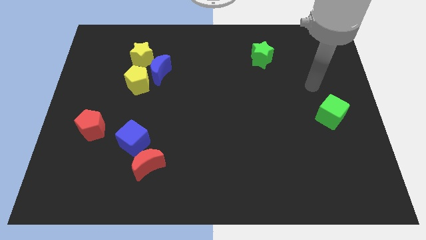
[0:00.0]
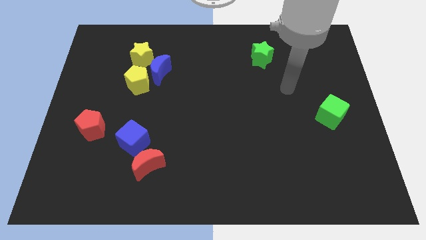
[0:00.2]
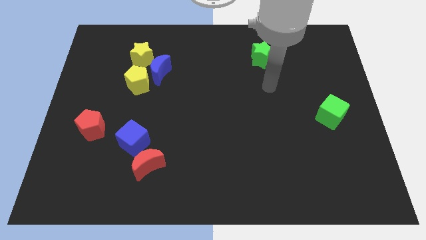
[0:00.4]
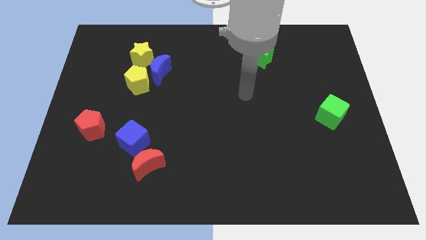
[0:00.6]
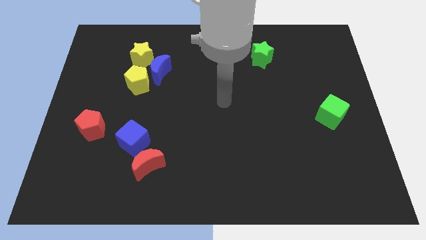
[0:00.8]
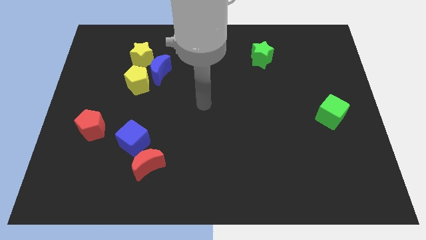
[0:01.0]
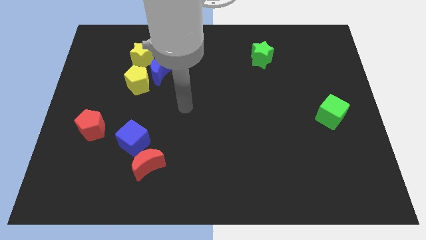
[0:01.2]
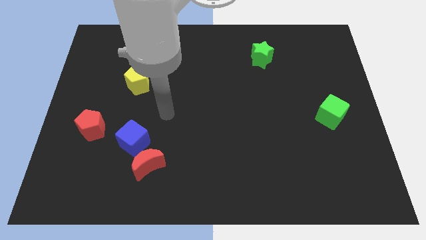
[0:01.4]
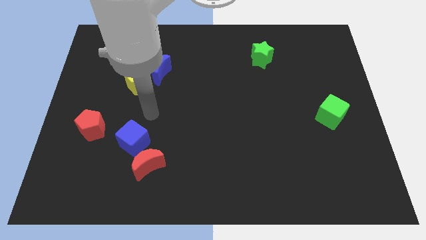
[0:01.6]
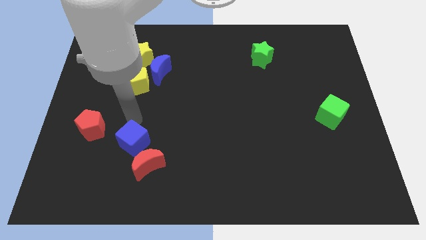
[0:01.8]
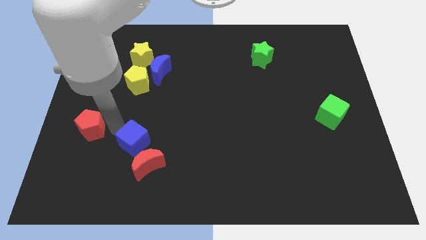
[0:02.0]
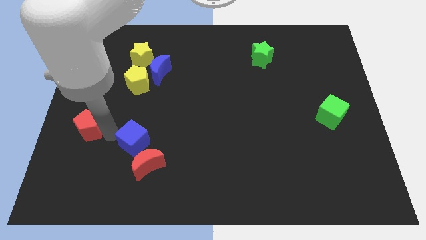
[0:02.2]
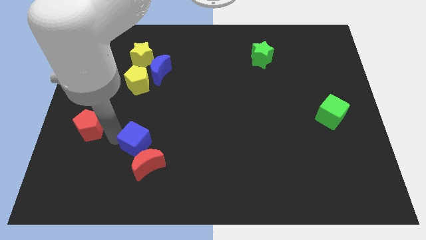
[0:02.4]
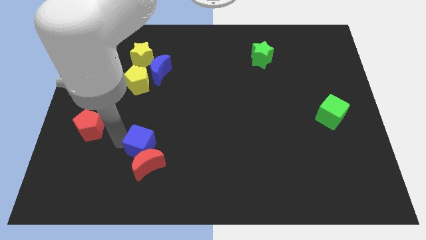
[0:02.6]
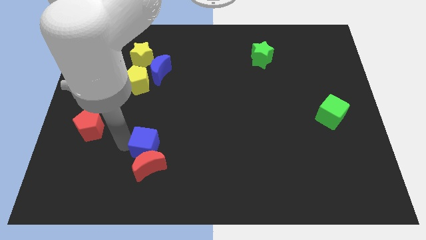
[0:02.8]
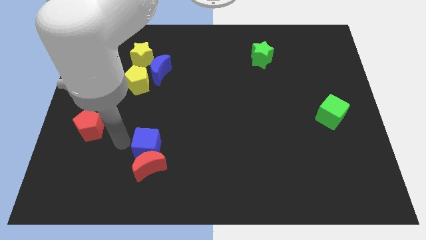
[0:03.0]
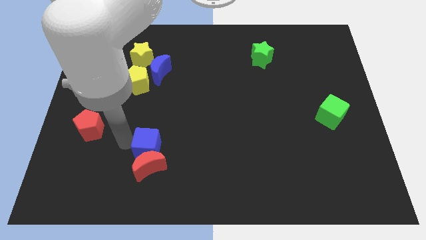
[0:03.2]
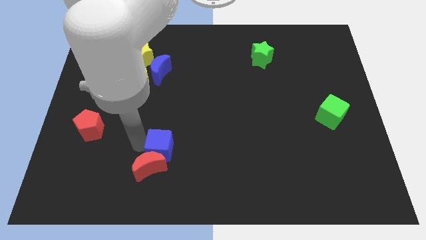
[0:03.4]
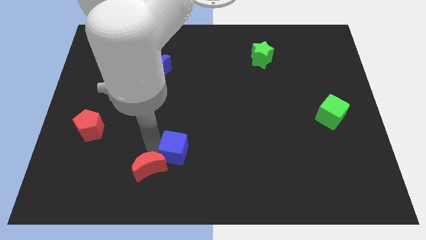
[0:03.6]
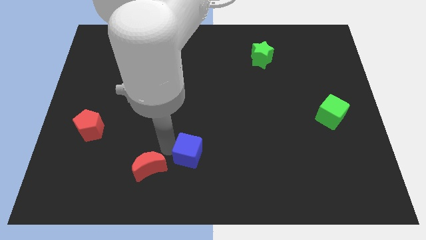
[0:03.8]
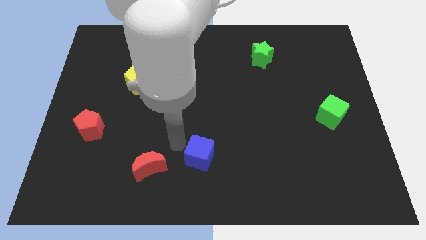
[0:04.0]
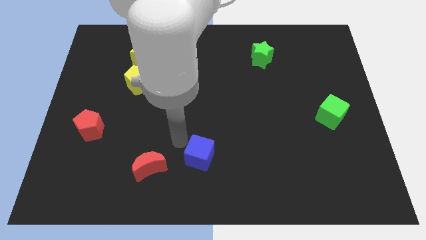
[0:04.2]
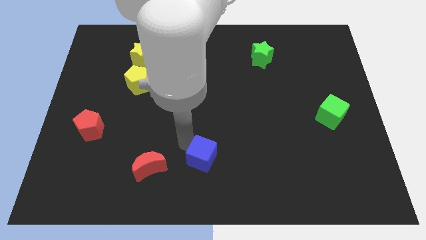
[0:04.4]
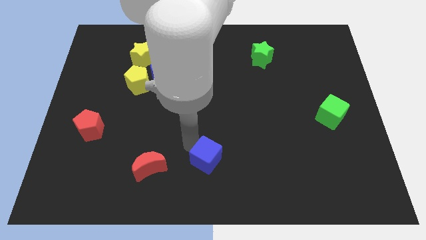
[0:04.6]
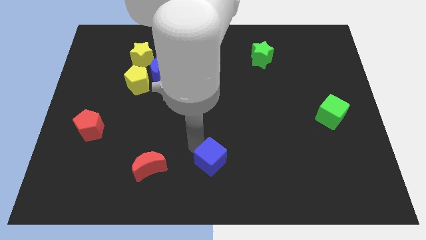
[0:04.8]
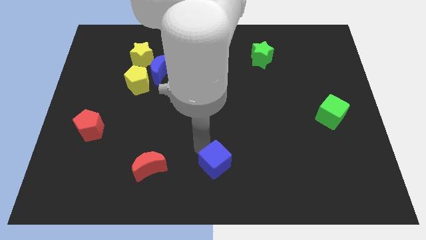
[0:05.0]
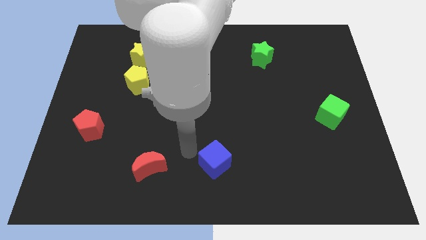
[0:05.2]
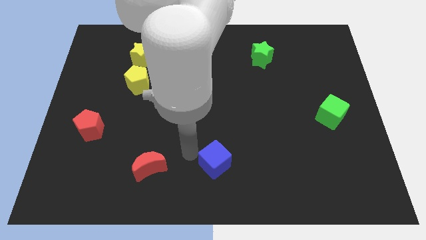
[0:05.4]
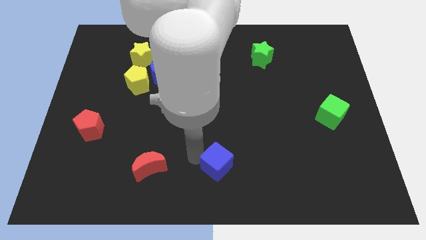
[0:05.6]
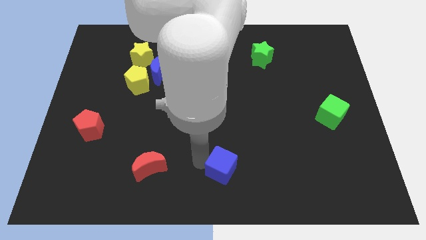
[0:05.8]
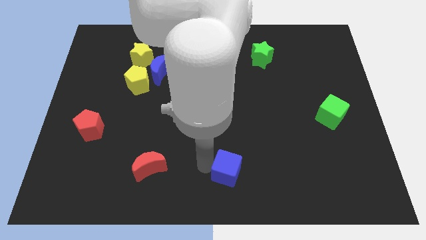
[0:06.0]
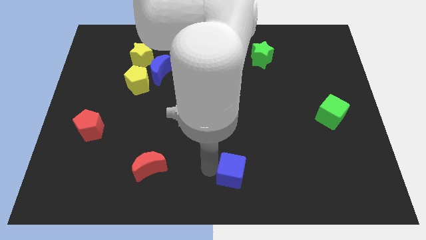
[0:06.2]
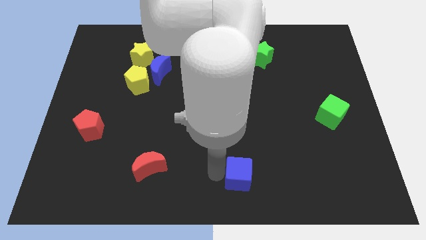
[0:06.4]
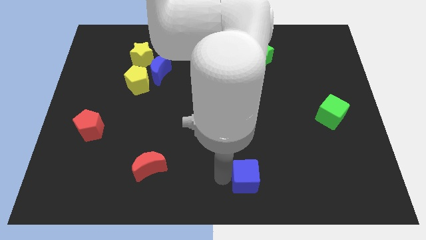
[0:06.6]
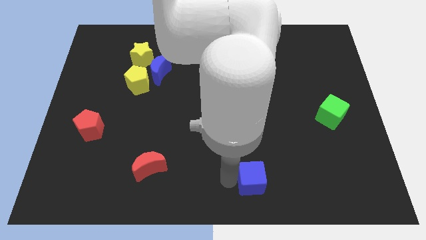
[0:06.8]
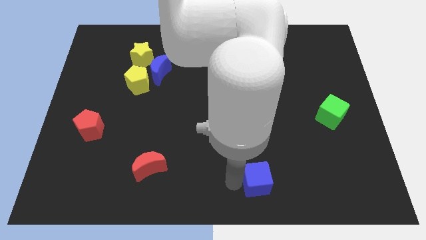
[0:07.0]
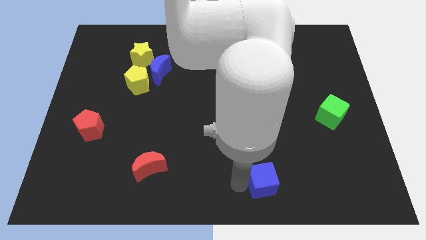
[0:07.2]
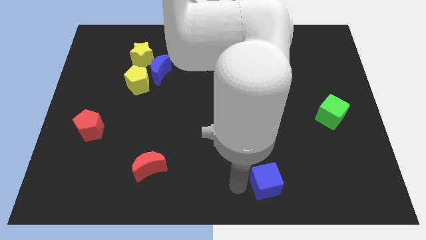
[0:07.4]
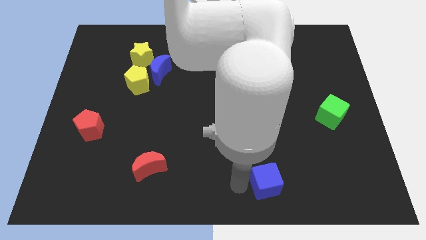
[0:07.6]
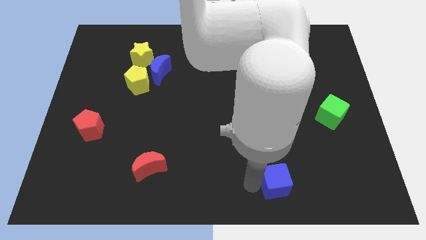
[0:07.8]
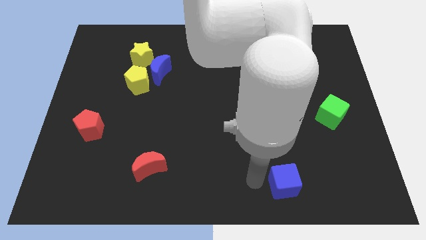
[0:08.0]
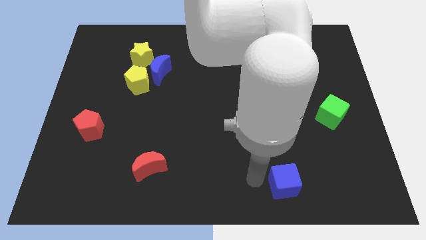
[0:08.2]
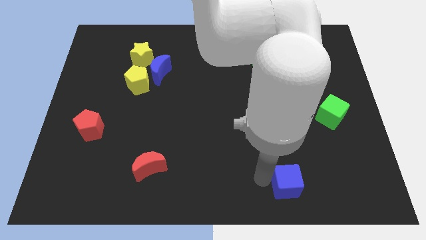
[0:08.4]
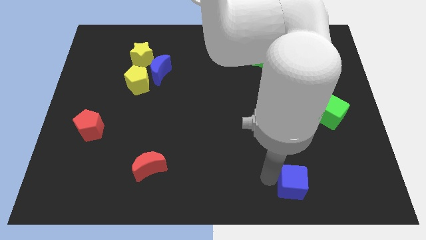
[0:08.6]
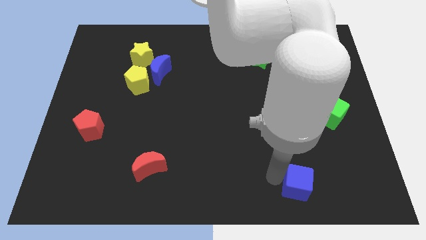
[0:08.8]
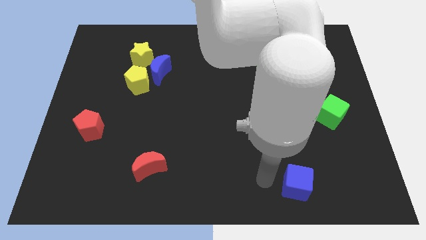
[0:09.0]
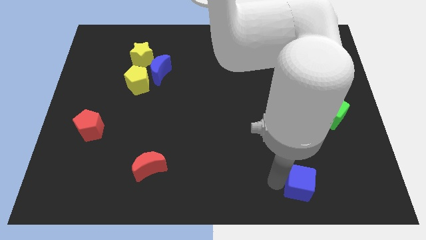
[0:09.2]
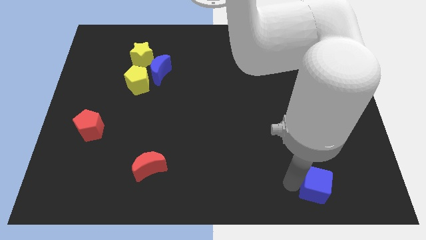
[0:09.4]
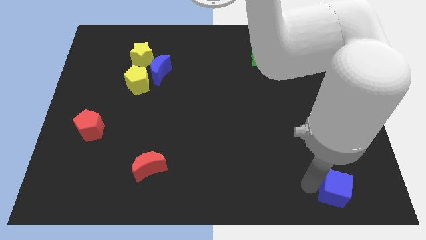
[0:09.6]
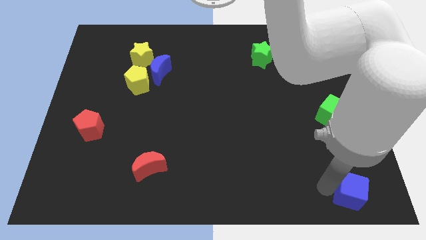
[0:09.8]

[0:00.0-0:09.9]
push the blue cube to the bottom right corner

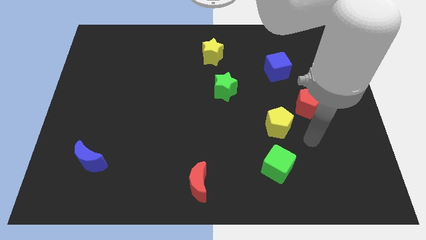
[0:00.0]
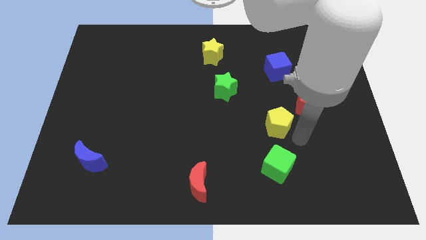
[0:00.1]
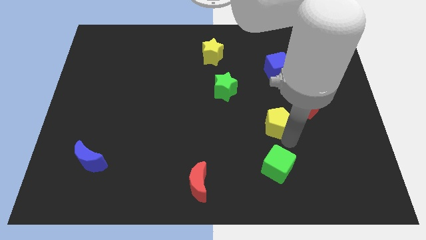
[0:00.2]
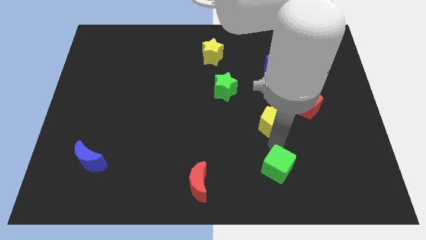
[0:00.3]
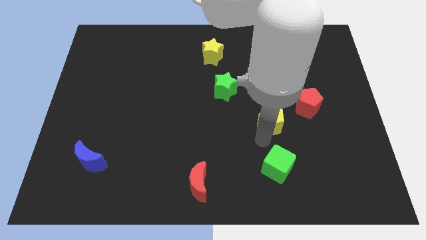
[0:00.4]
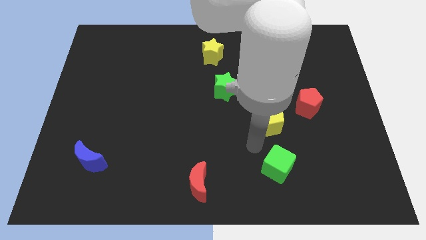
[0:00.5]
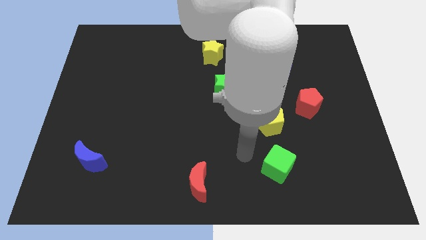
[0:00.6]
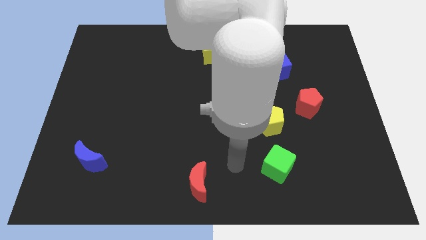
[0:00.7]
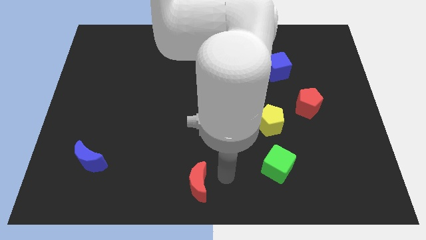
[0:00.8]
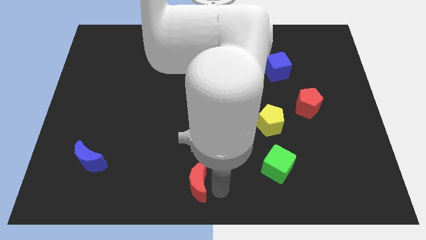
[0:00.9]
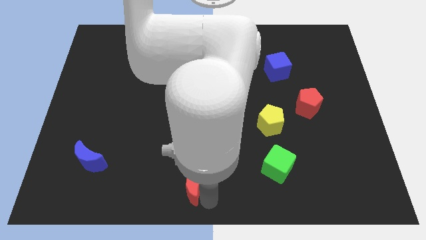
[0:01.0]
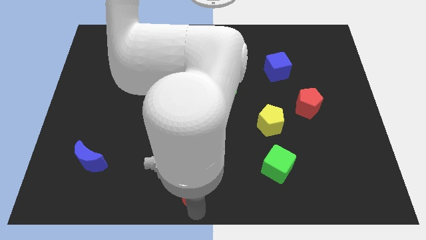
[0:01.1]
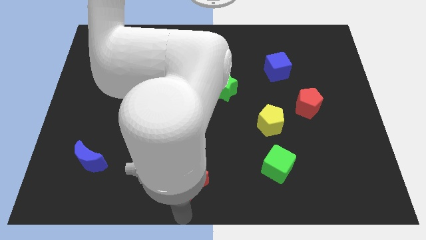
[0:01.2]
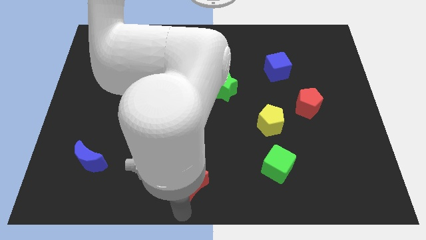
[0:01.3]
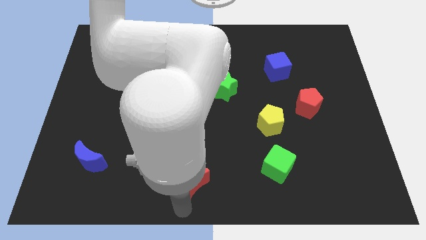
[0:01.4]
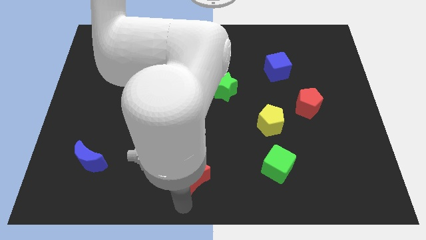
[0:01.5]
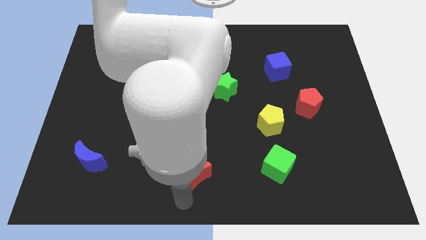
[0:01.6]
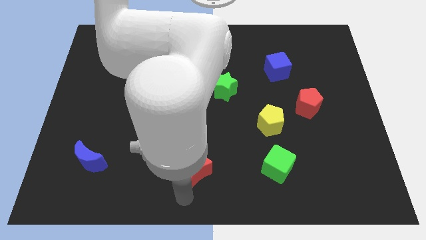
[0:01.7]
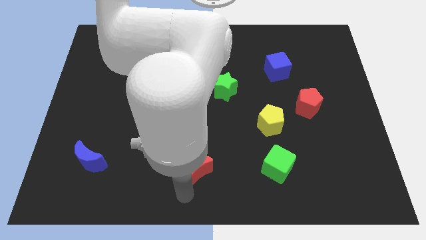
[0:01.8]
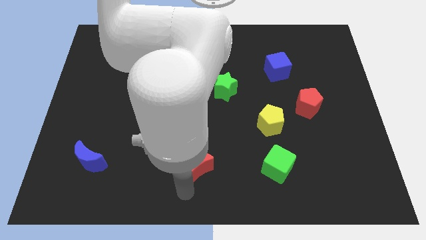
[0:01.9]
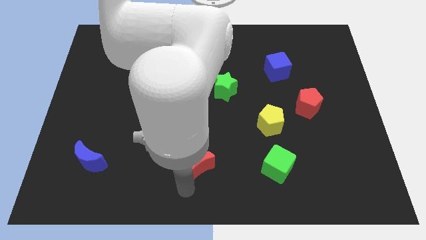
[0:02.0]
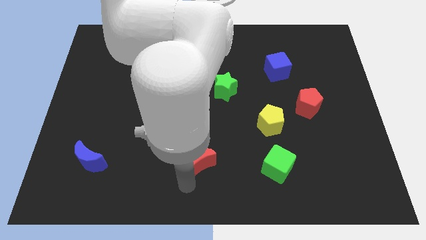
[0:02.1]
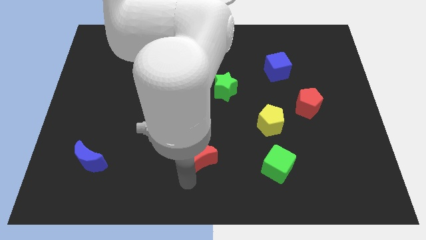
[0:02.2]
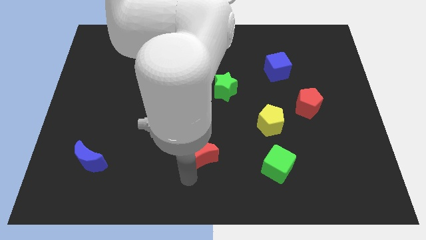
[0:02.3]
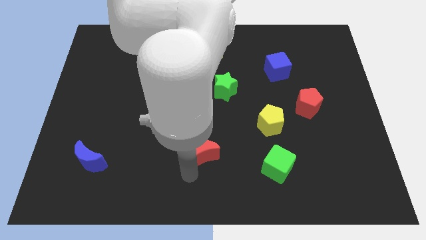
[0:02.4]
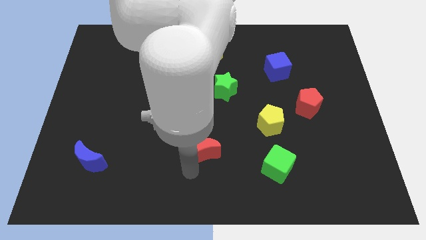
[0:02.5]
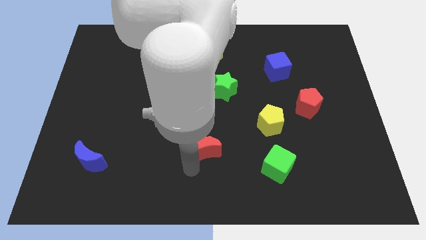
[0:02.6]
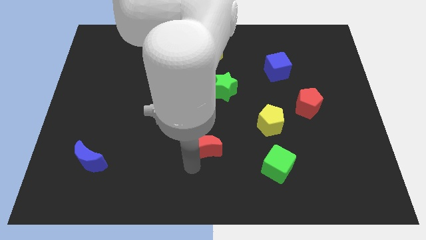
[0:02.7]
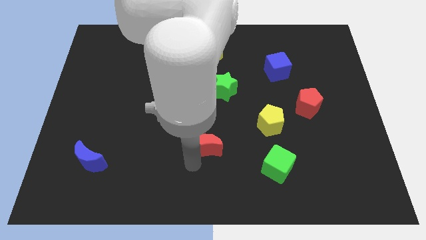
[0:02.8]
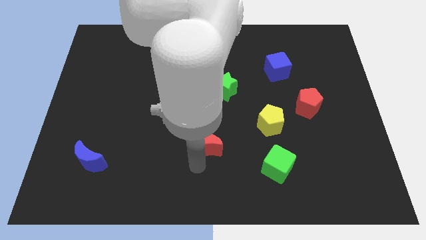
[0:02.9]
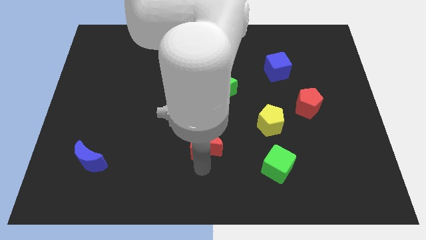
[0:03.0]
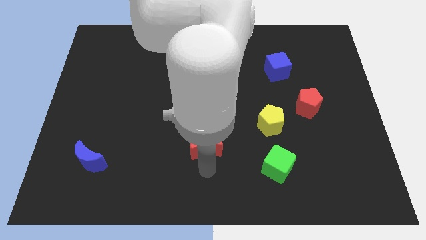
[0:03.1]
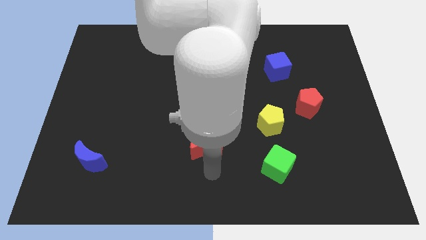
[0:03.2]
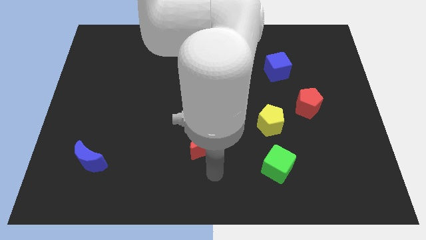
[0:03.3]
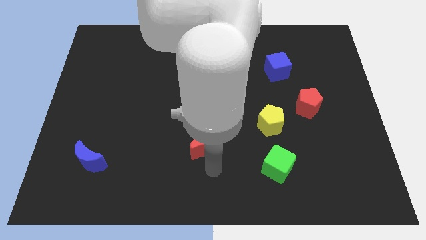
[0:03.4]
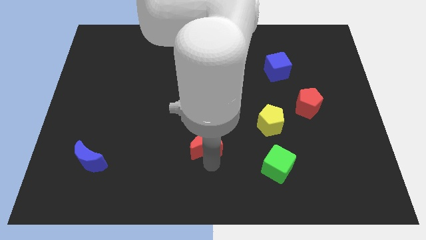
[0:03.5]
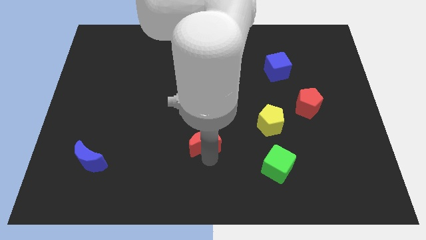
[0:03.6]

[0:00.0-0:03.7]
put the red moon to the center
